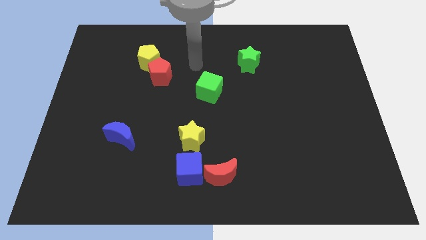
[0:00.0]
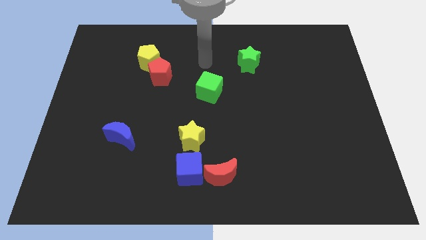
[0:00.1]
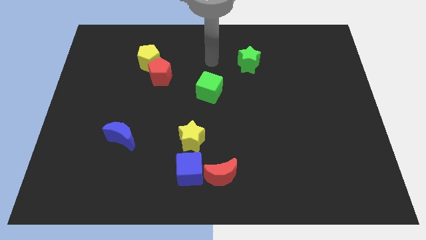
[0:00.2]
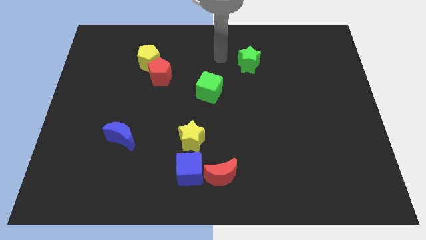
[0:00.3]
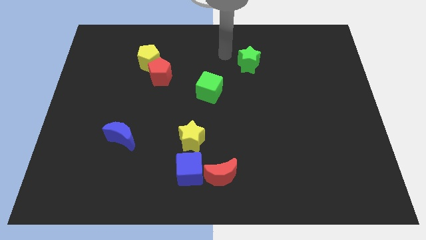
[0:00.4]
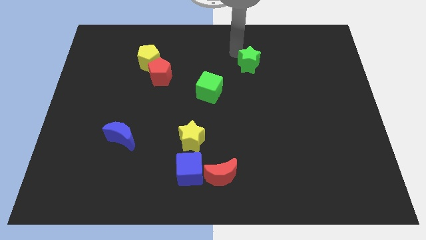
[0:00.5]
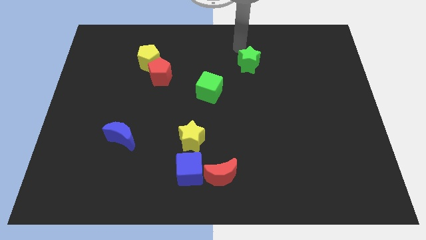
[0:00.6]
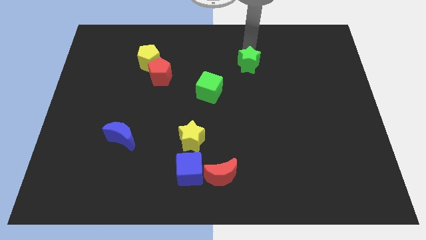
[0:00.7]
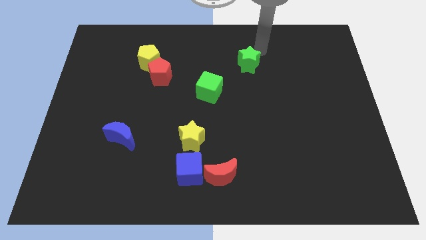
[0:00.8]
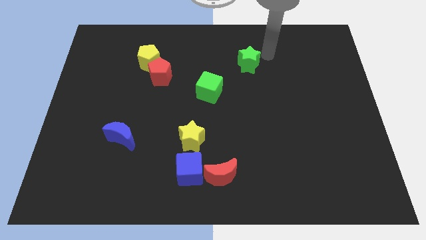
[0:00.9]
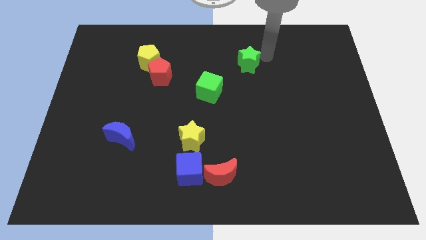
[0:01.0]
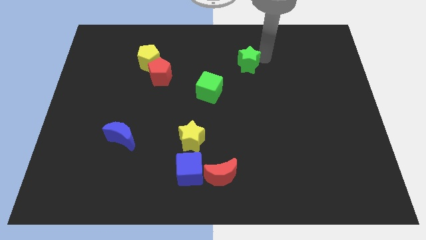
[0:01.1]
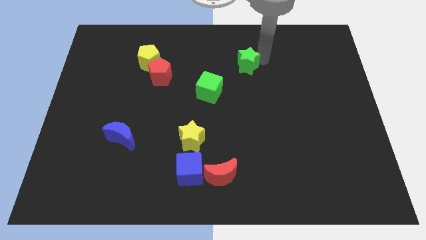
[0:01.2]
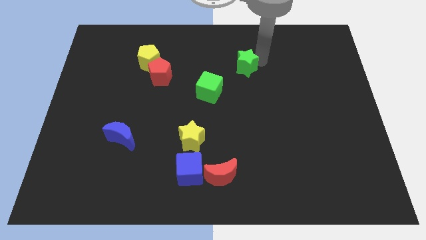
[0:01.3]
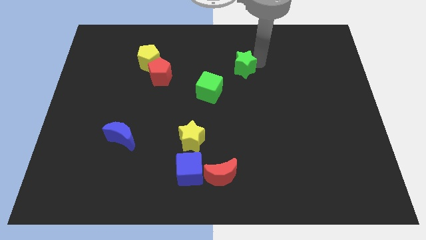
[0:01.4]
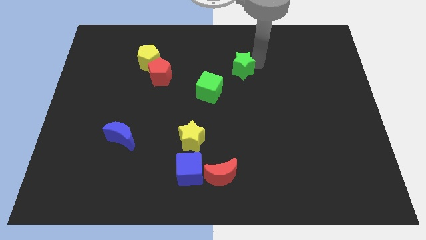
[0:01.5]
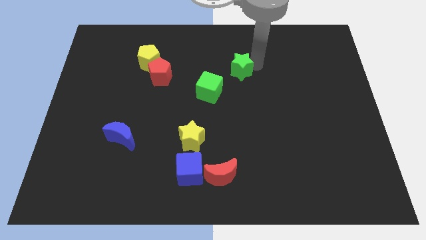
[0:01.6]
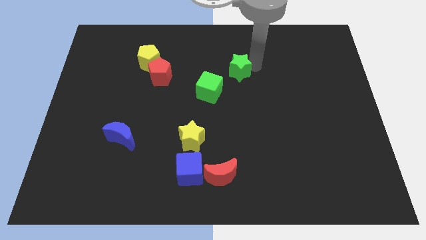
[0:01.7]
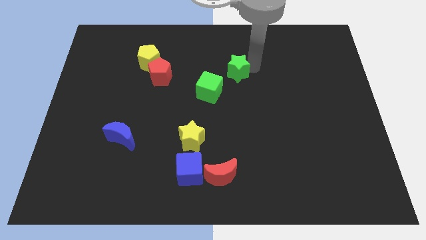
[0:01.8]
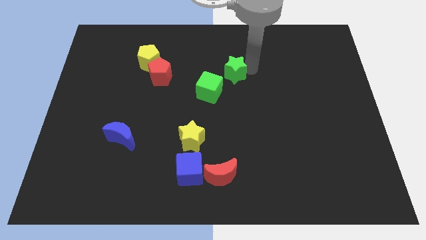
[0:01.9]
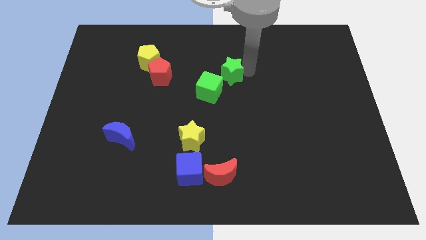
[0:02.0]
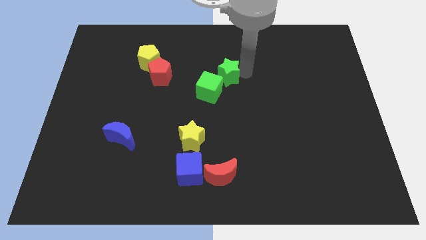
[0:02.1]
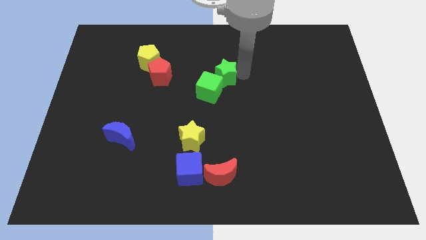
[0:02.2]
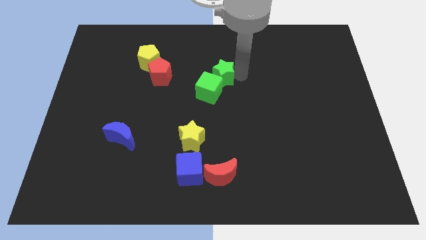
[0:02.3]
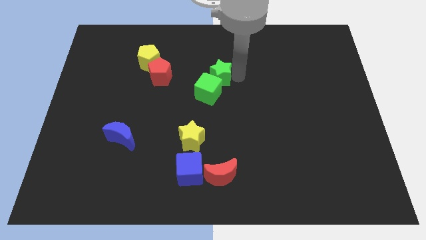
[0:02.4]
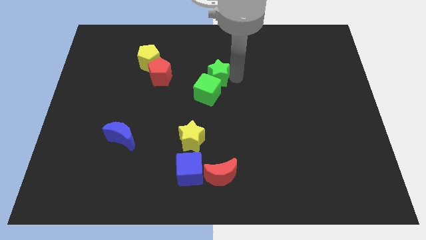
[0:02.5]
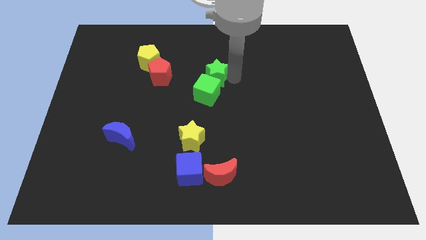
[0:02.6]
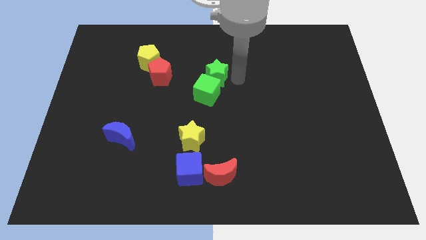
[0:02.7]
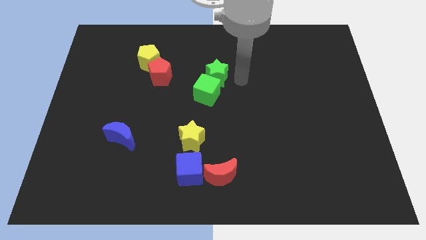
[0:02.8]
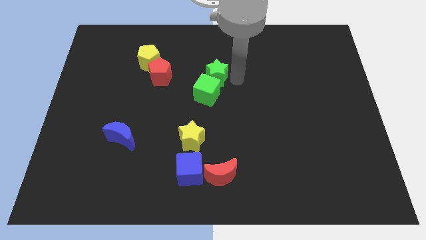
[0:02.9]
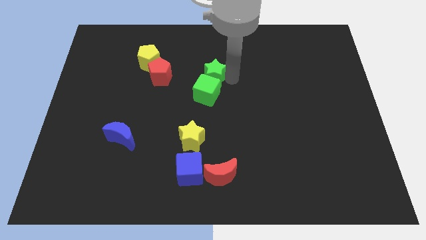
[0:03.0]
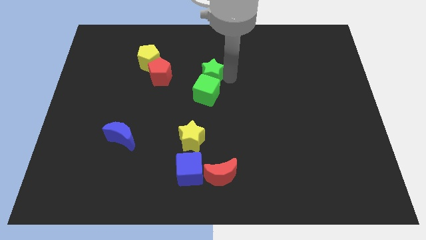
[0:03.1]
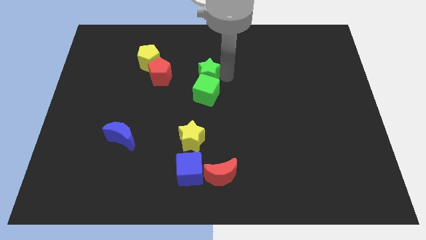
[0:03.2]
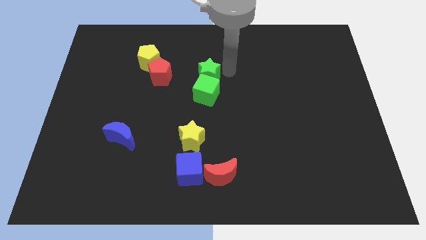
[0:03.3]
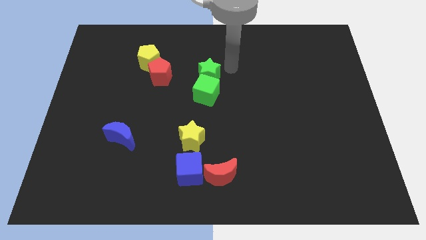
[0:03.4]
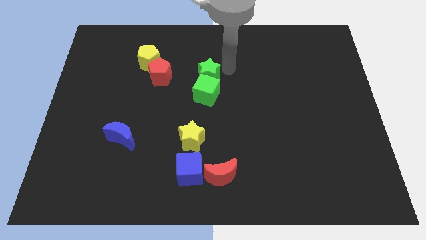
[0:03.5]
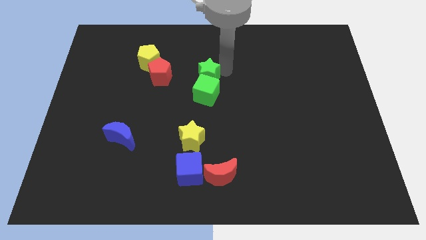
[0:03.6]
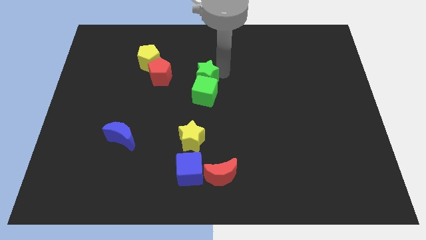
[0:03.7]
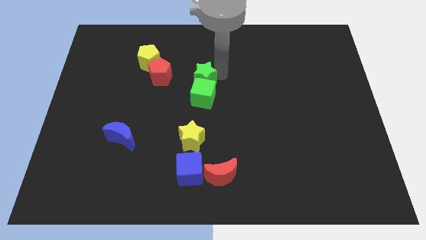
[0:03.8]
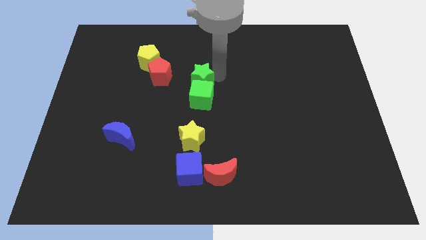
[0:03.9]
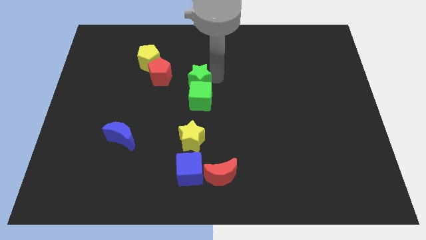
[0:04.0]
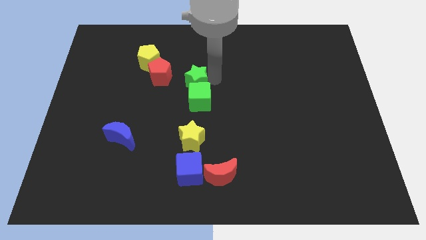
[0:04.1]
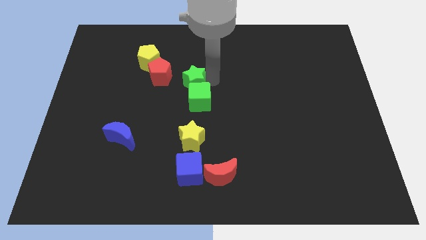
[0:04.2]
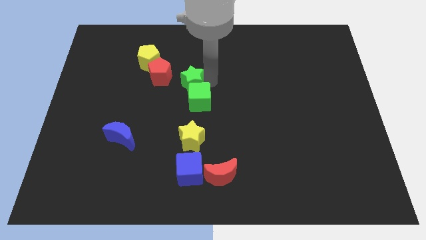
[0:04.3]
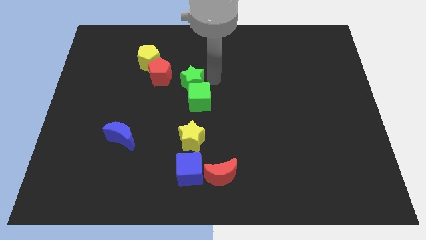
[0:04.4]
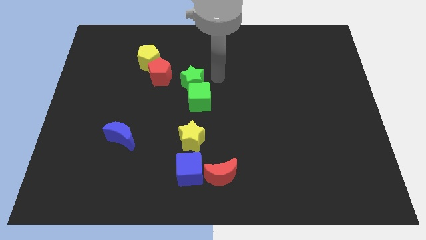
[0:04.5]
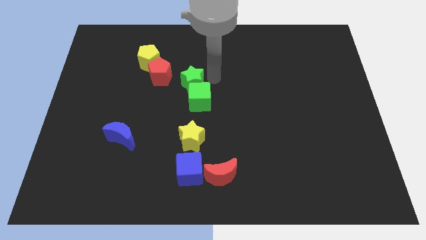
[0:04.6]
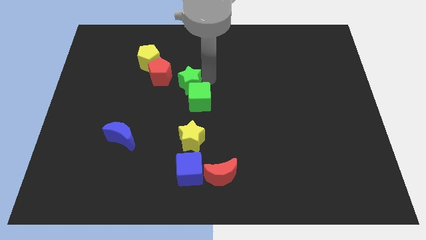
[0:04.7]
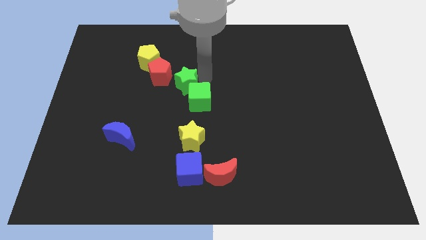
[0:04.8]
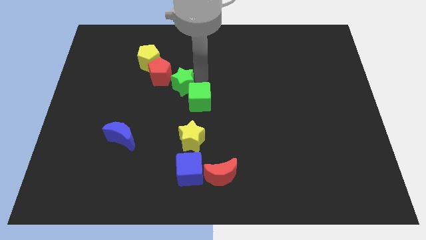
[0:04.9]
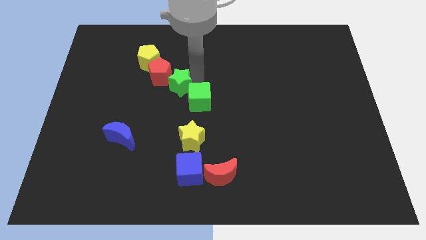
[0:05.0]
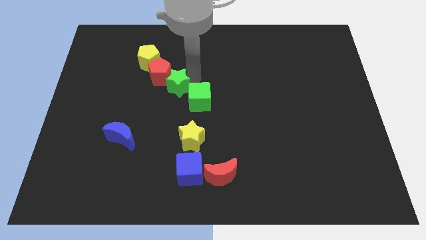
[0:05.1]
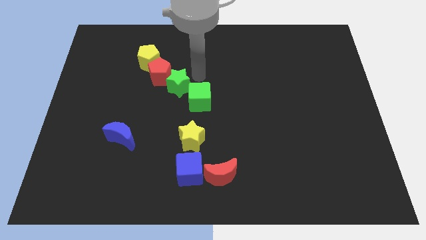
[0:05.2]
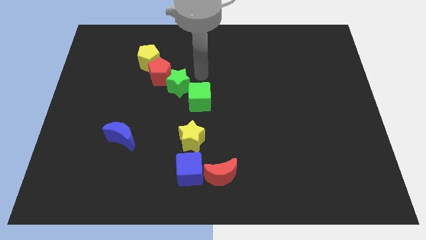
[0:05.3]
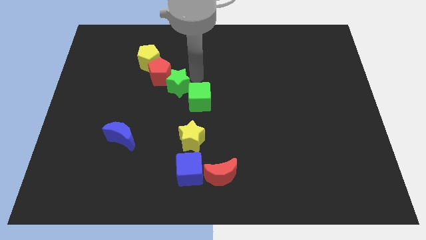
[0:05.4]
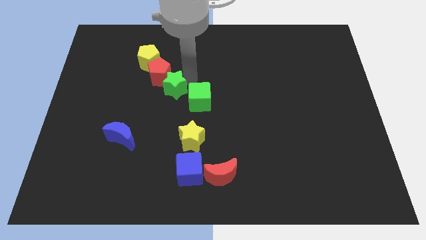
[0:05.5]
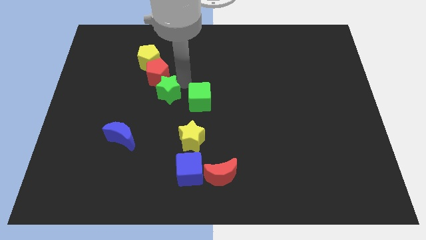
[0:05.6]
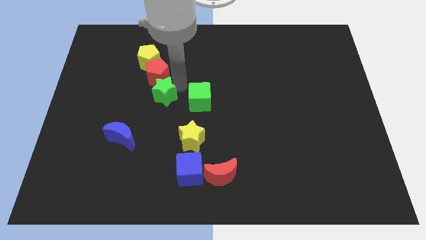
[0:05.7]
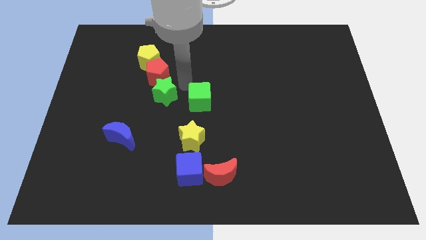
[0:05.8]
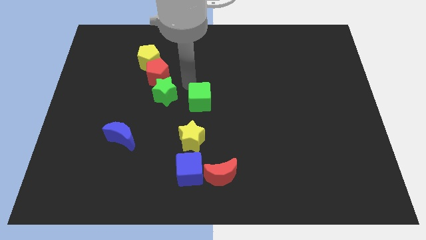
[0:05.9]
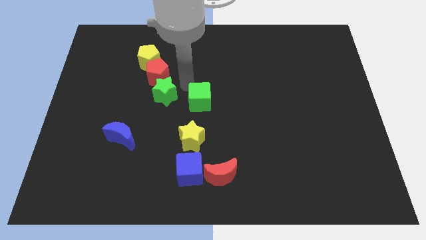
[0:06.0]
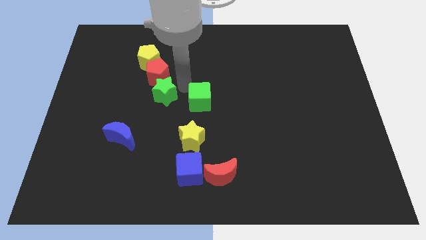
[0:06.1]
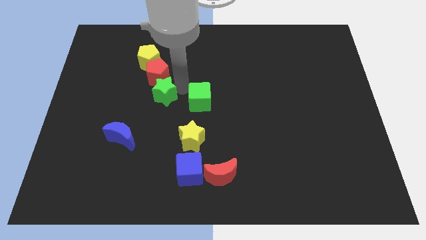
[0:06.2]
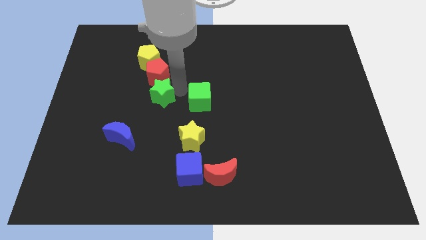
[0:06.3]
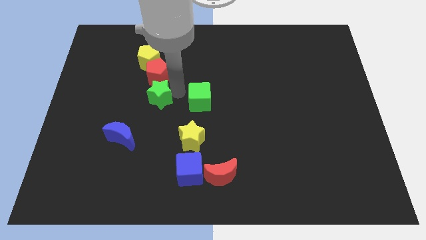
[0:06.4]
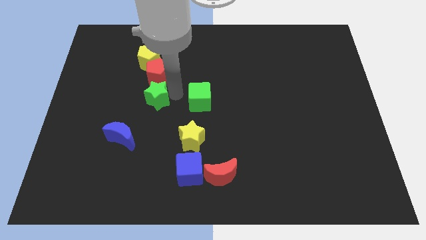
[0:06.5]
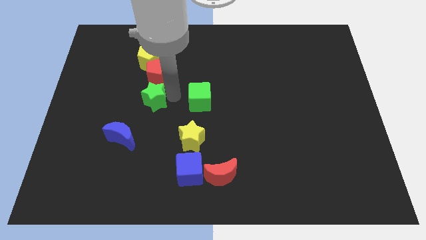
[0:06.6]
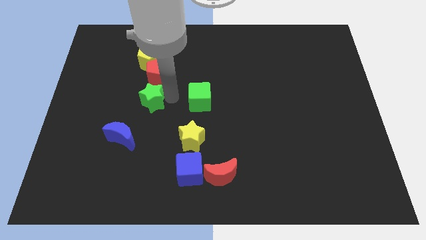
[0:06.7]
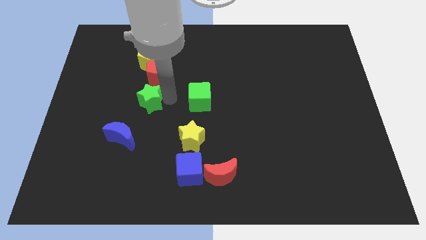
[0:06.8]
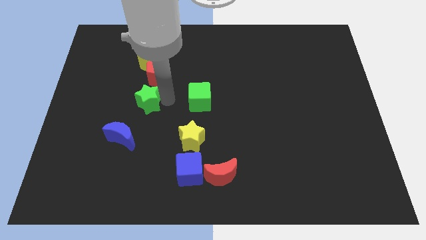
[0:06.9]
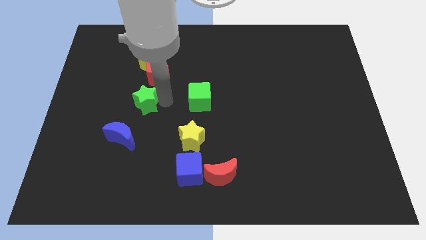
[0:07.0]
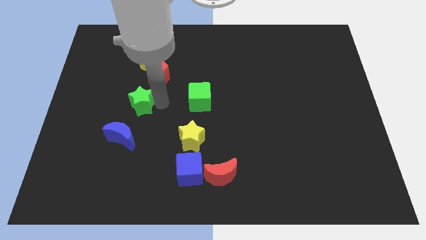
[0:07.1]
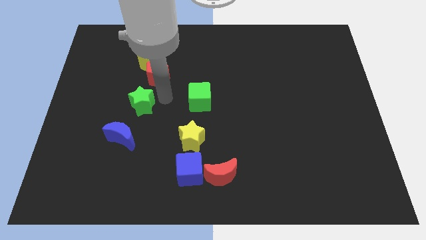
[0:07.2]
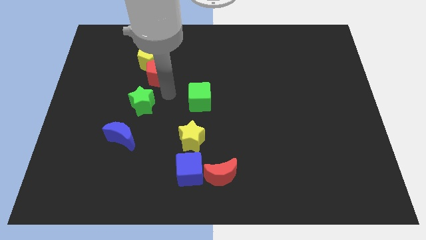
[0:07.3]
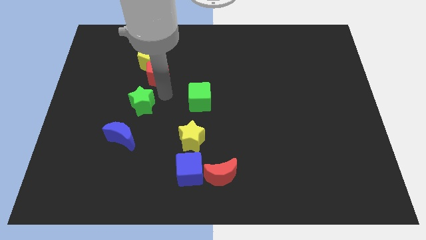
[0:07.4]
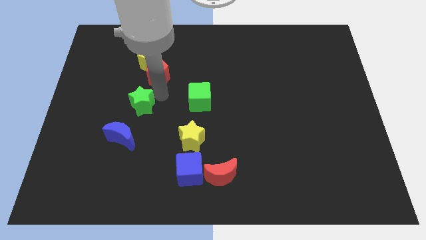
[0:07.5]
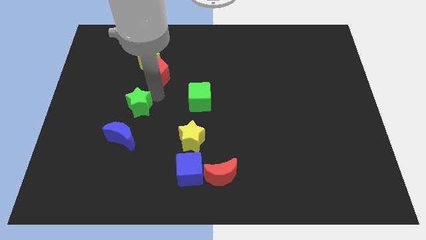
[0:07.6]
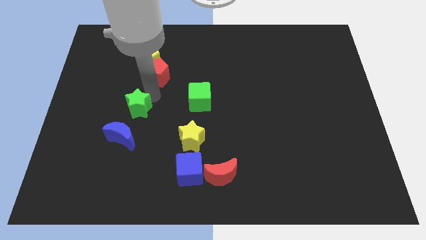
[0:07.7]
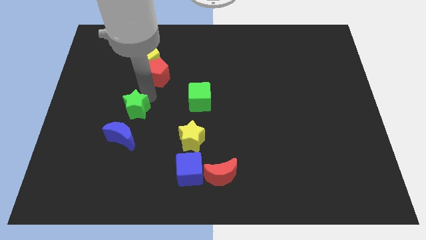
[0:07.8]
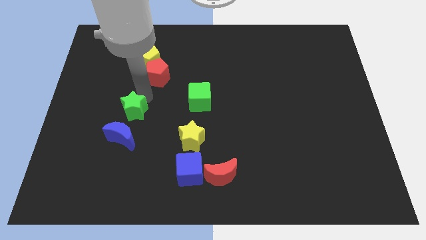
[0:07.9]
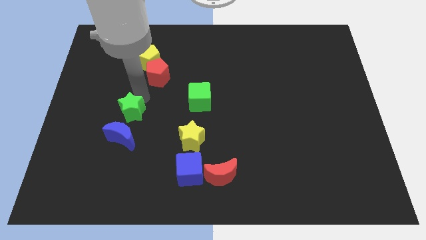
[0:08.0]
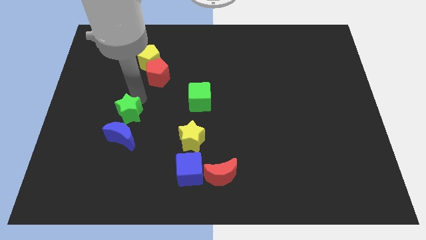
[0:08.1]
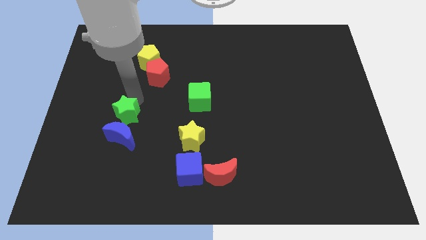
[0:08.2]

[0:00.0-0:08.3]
push the green star to the top left of the blue moon
